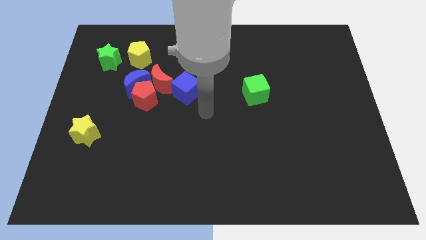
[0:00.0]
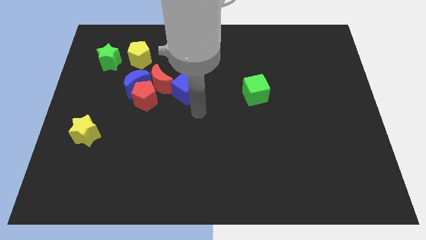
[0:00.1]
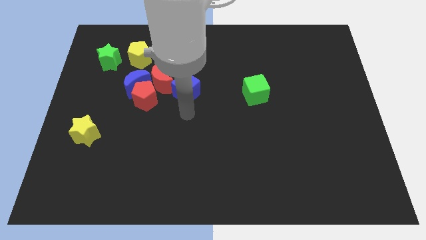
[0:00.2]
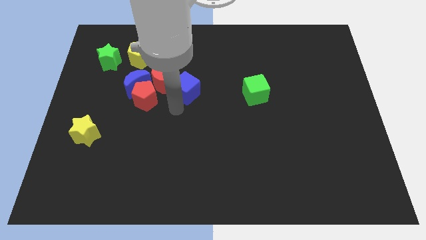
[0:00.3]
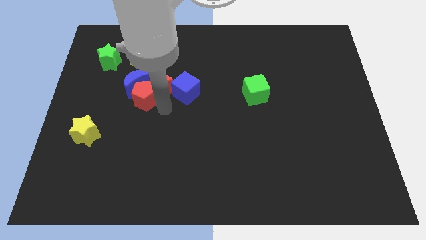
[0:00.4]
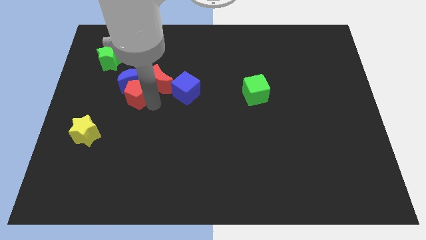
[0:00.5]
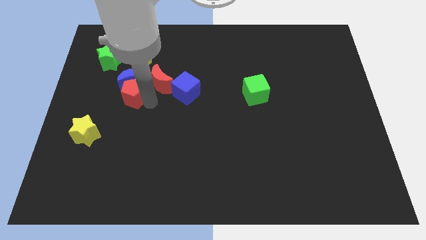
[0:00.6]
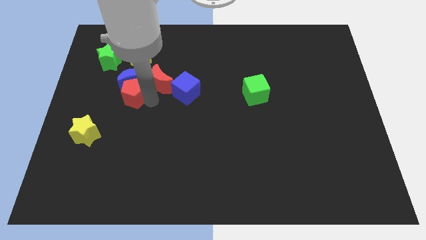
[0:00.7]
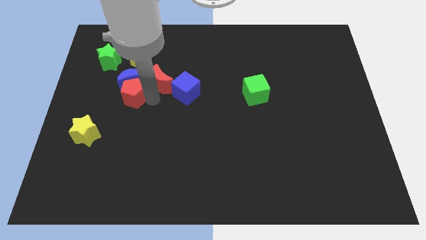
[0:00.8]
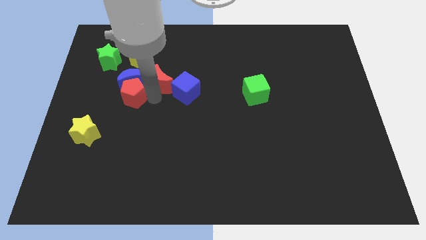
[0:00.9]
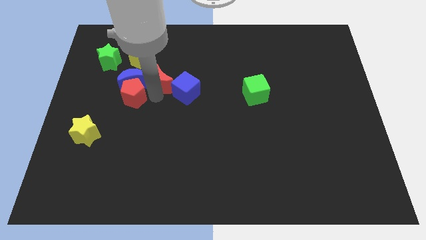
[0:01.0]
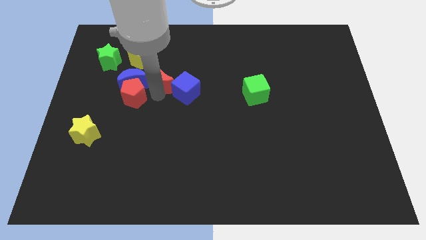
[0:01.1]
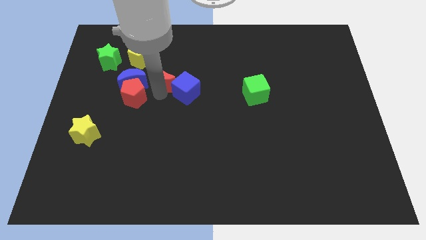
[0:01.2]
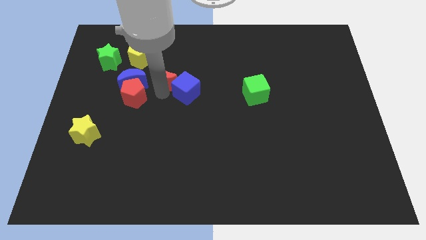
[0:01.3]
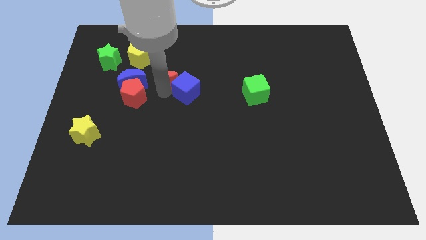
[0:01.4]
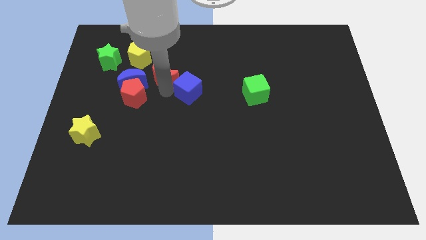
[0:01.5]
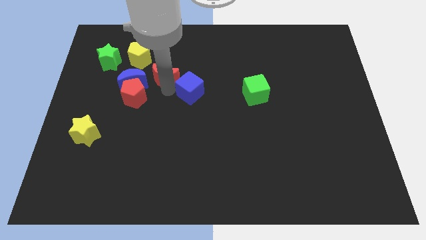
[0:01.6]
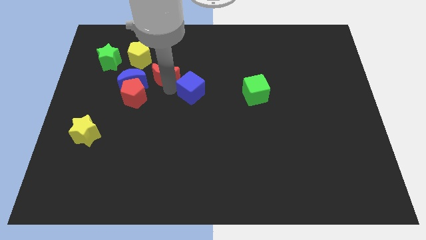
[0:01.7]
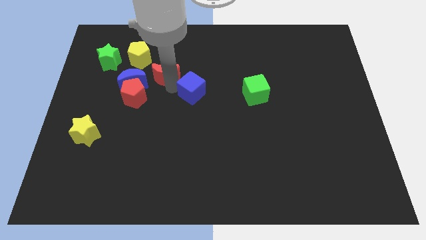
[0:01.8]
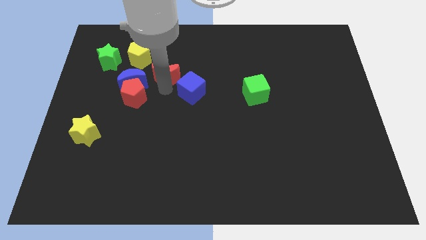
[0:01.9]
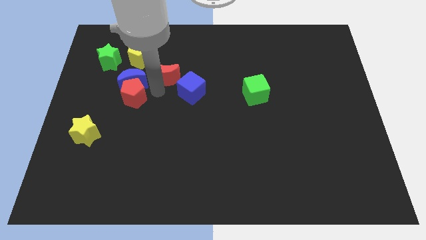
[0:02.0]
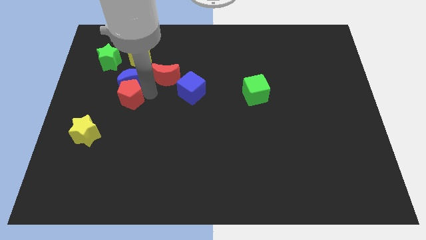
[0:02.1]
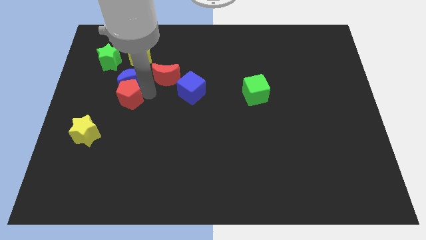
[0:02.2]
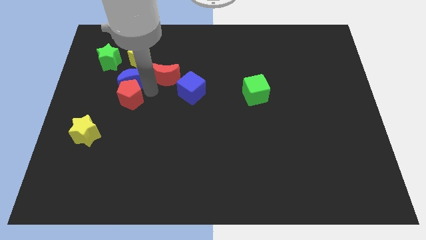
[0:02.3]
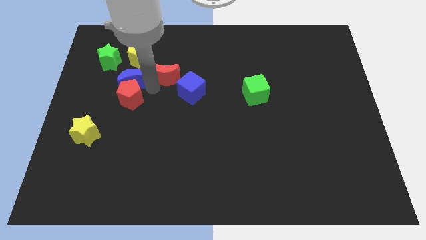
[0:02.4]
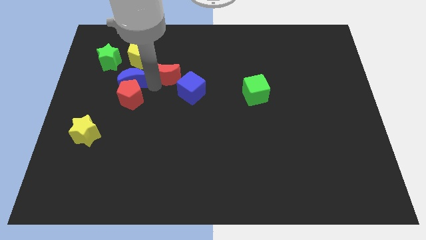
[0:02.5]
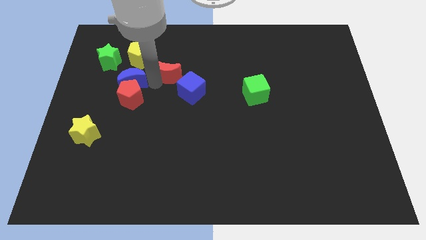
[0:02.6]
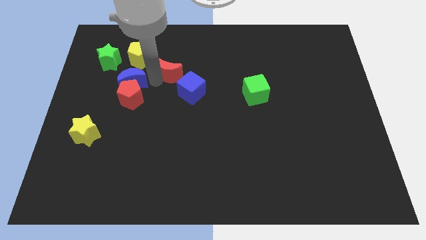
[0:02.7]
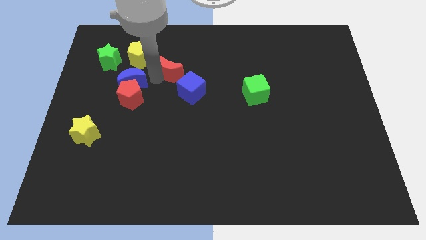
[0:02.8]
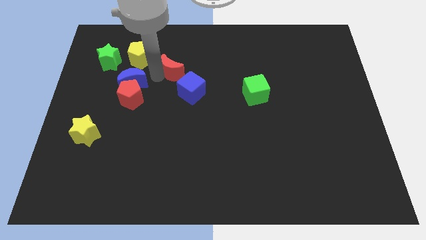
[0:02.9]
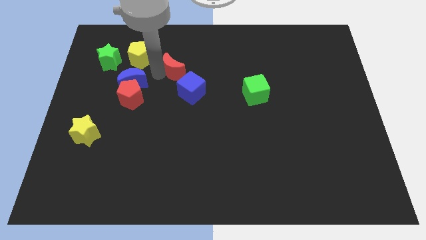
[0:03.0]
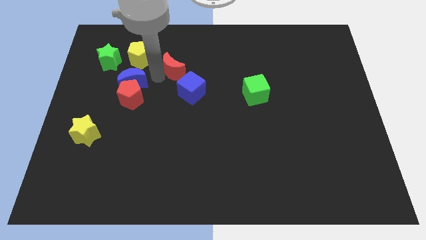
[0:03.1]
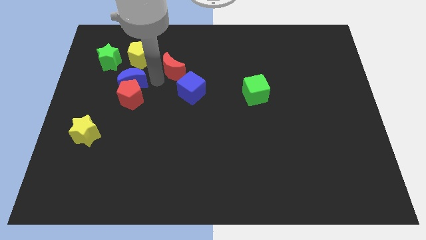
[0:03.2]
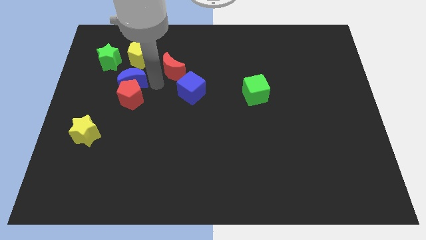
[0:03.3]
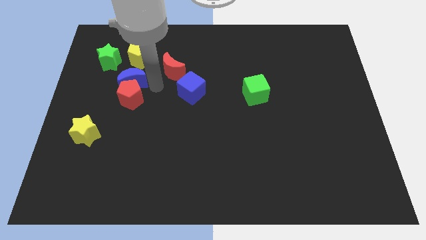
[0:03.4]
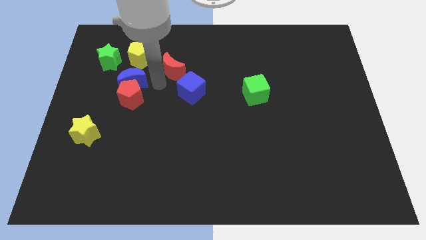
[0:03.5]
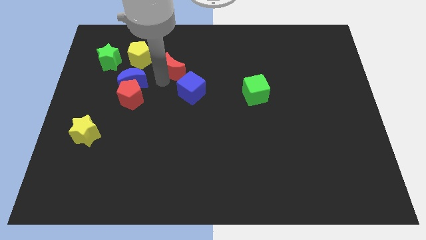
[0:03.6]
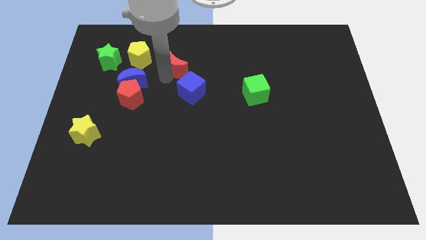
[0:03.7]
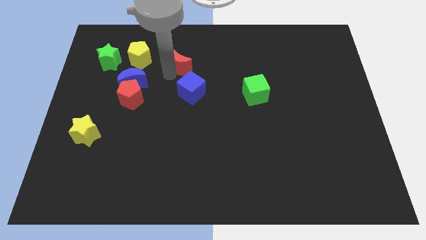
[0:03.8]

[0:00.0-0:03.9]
pull the red moon apart from the red pentagon, blue moon, and blue cube

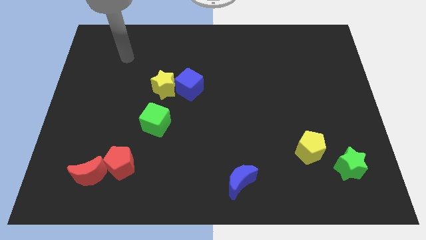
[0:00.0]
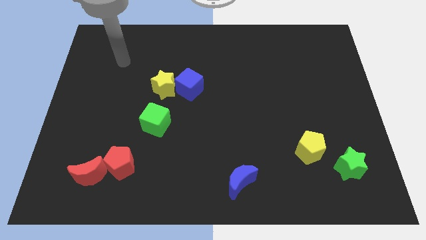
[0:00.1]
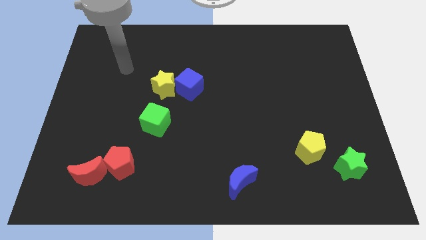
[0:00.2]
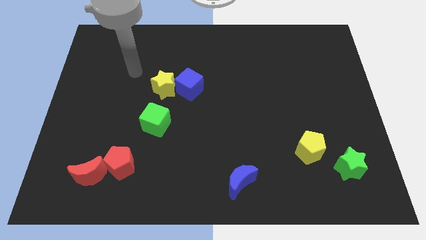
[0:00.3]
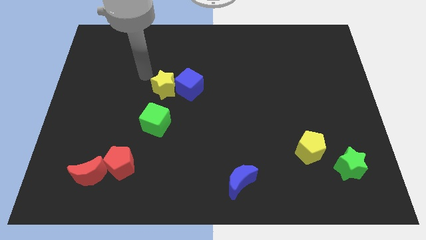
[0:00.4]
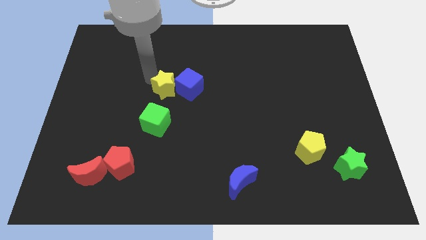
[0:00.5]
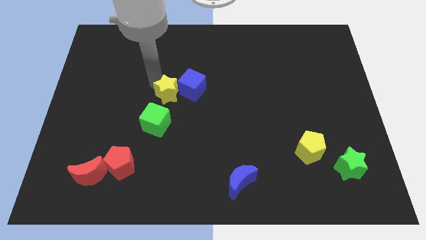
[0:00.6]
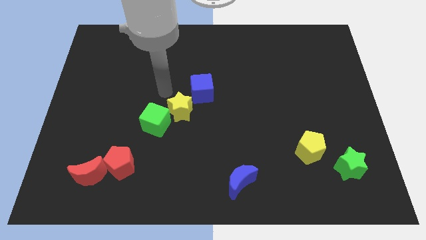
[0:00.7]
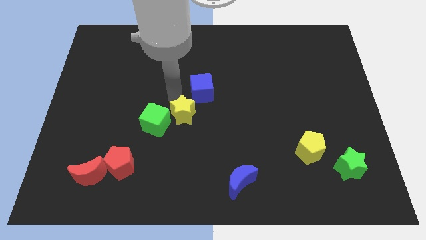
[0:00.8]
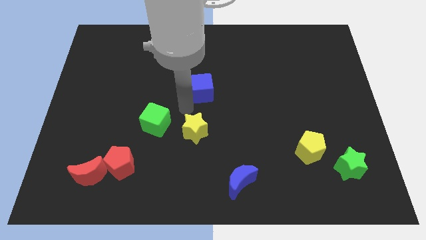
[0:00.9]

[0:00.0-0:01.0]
move the blue cube away from the yellow star

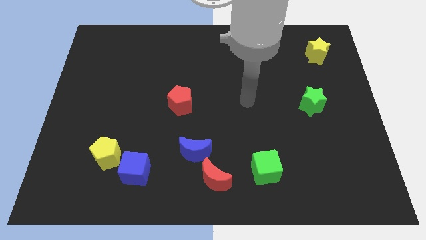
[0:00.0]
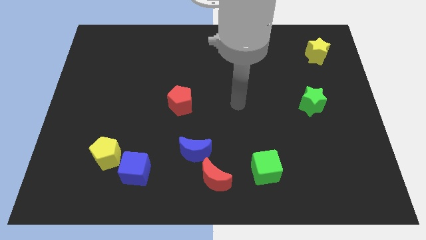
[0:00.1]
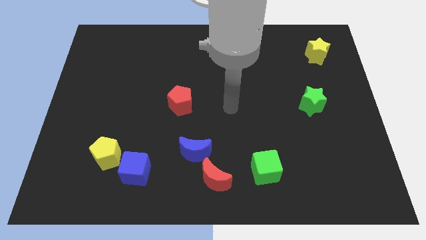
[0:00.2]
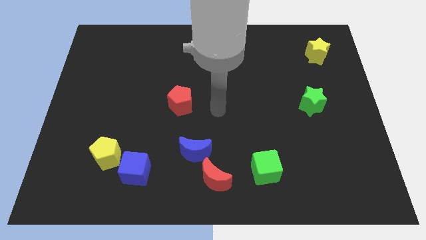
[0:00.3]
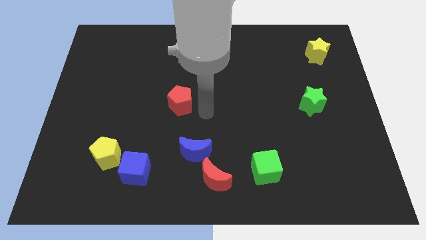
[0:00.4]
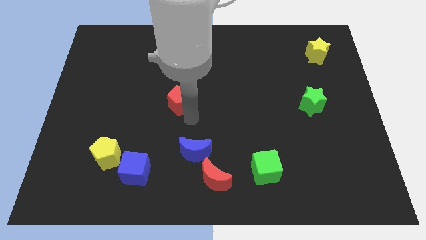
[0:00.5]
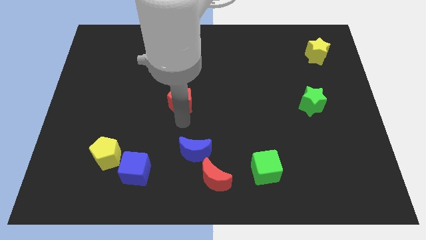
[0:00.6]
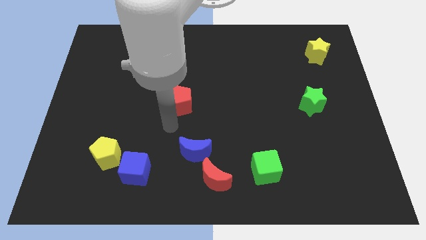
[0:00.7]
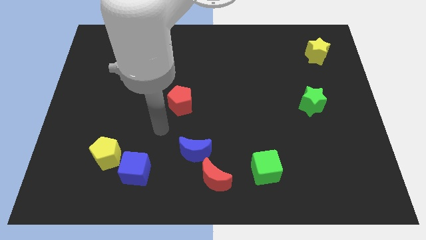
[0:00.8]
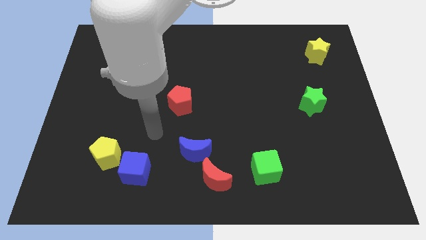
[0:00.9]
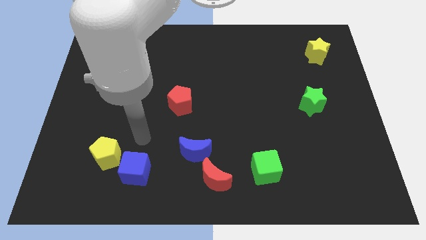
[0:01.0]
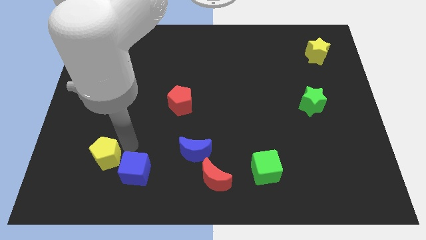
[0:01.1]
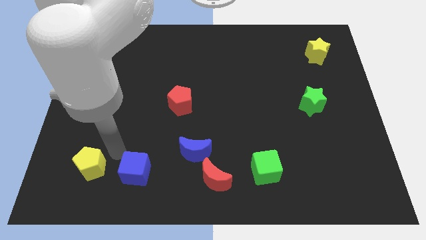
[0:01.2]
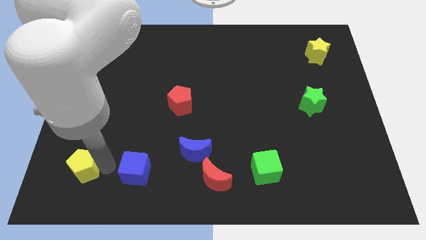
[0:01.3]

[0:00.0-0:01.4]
pull the blue cube apart from the yellow pentagon

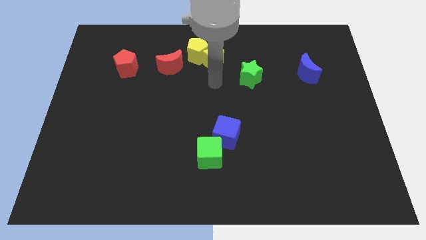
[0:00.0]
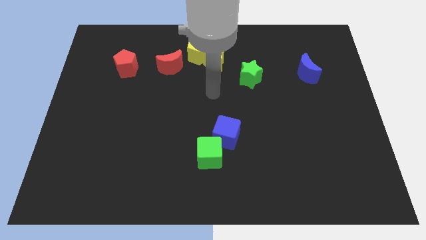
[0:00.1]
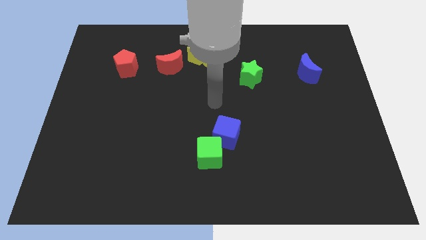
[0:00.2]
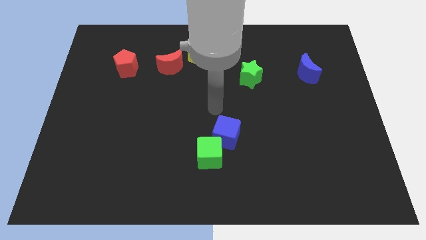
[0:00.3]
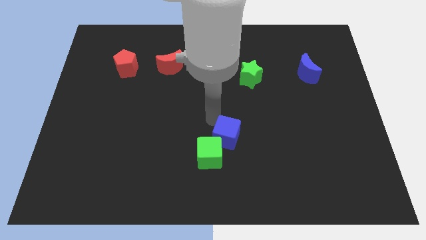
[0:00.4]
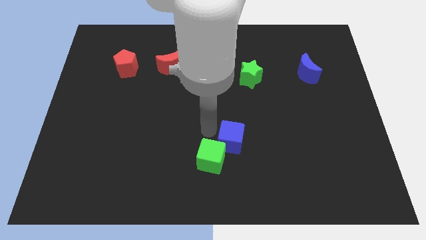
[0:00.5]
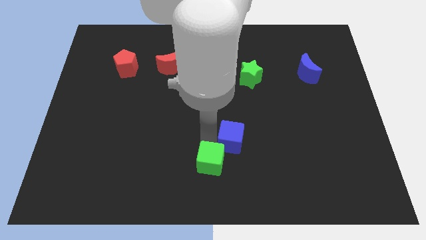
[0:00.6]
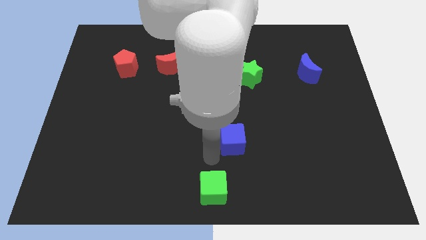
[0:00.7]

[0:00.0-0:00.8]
pull the blue cube apart from the green cube

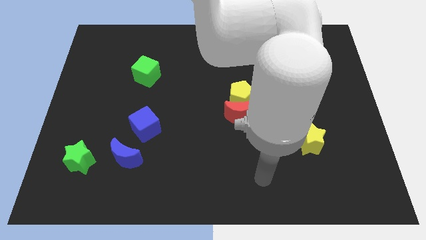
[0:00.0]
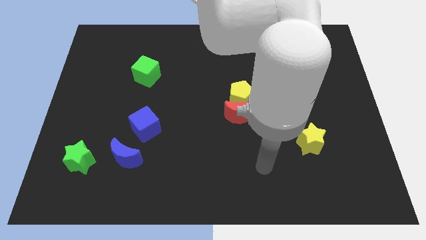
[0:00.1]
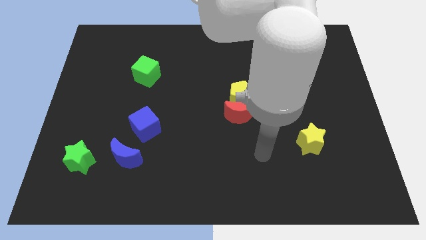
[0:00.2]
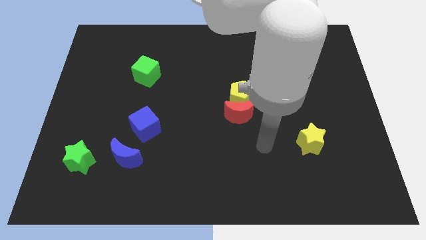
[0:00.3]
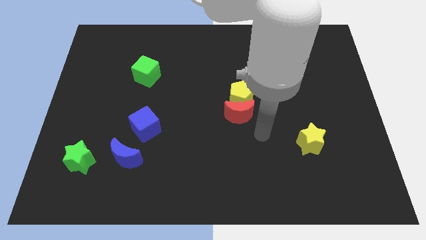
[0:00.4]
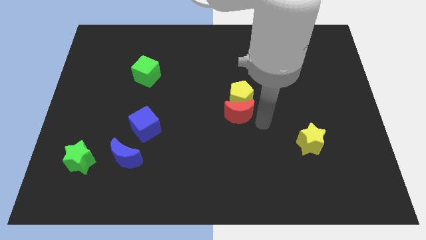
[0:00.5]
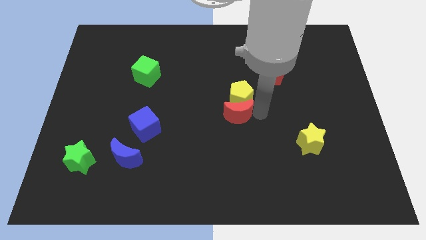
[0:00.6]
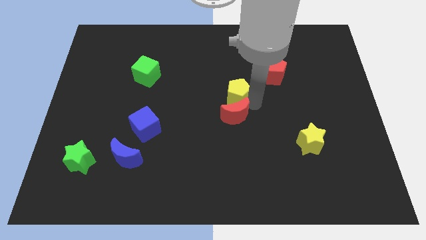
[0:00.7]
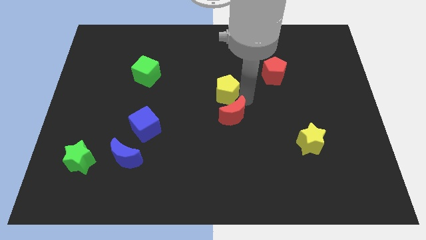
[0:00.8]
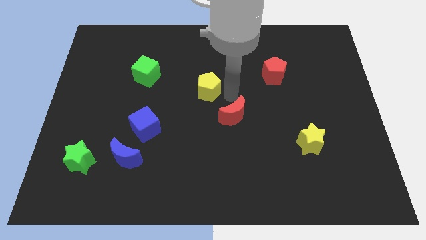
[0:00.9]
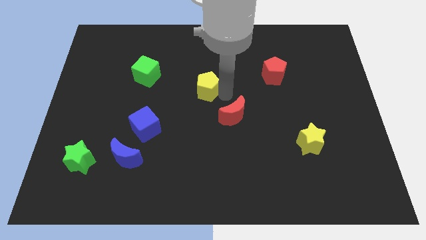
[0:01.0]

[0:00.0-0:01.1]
move the red moon away from the yellow pentagon

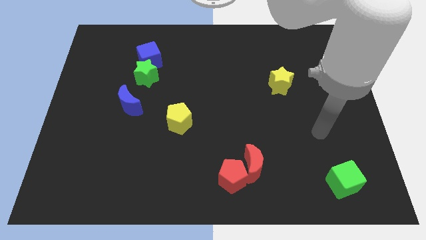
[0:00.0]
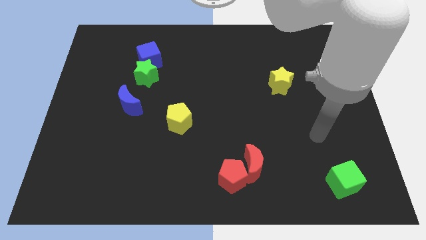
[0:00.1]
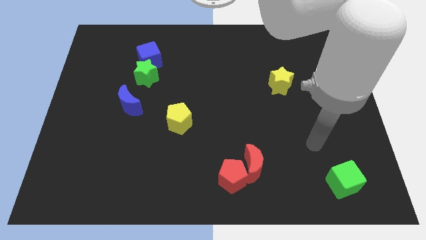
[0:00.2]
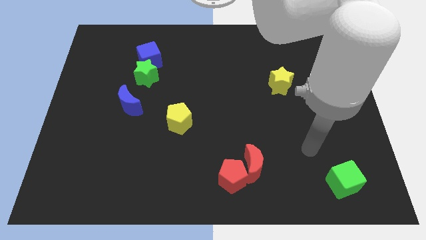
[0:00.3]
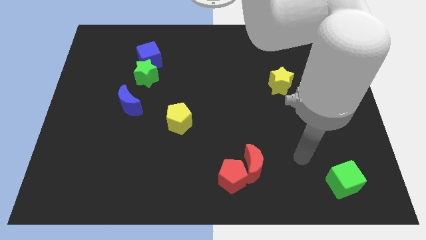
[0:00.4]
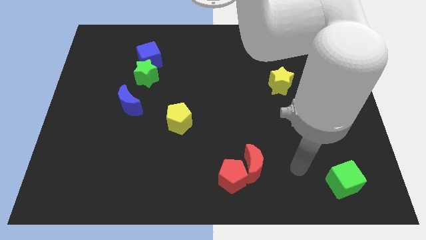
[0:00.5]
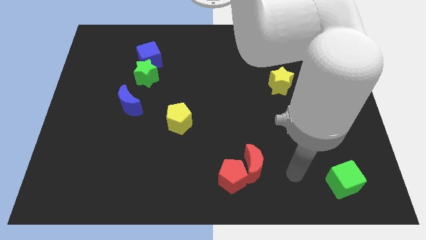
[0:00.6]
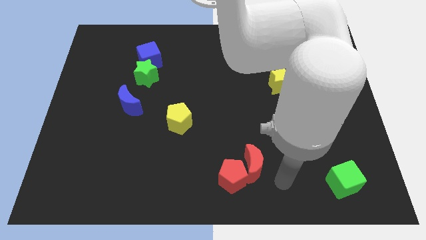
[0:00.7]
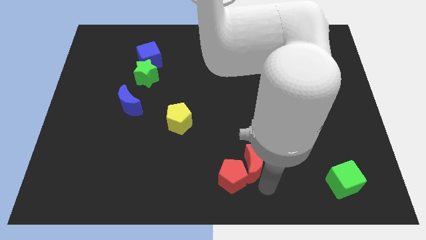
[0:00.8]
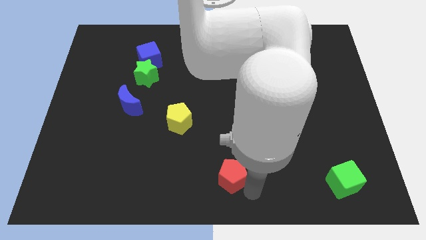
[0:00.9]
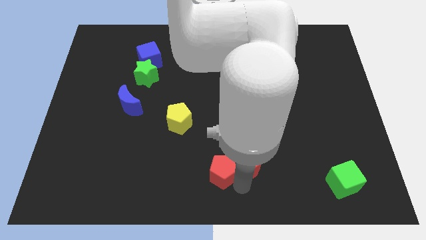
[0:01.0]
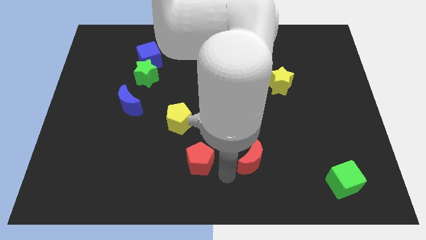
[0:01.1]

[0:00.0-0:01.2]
separate the red moon from the red pentagon

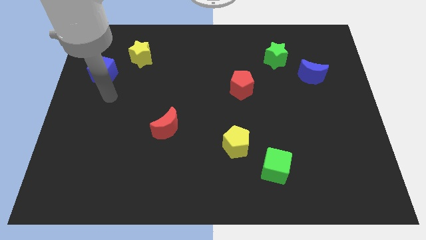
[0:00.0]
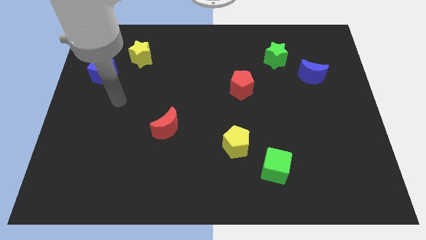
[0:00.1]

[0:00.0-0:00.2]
pull the green cube apart from the yellow pentagon
